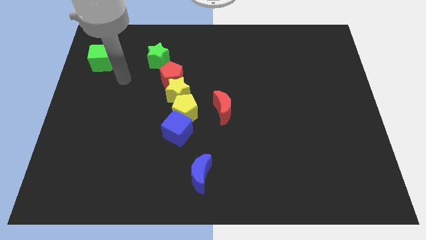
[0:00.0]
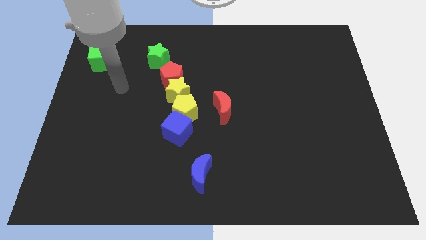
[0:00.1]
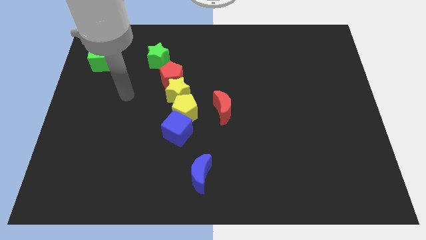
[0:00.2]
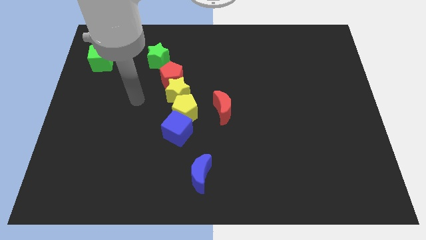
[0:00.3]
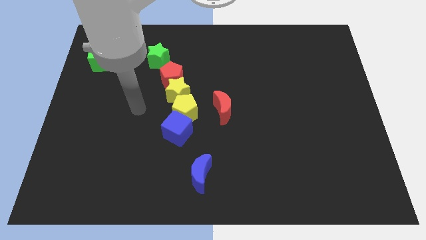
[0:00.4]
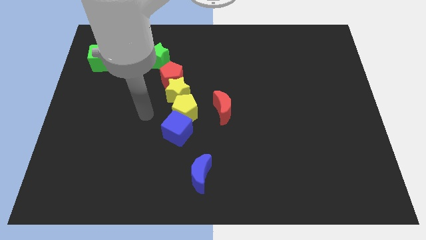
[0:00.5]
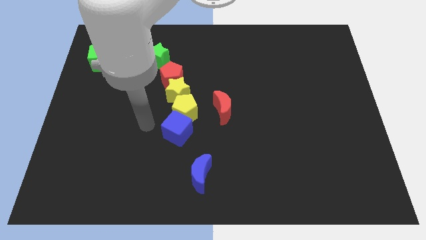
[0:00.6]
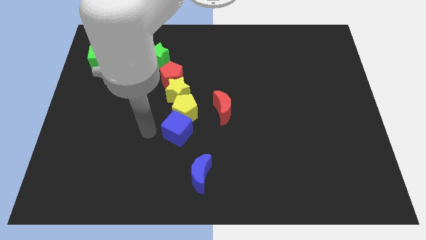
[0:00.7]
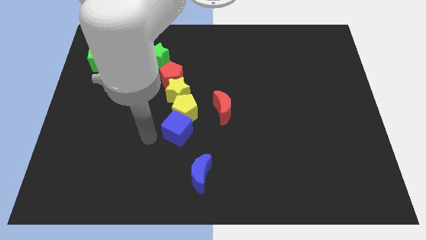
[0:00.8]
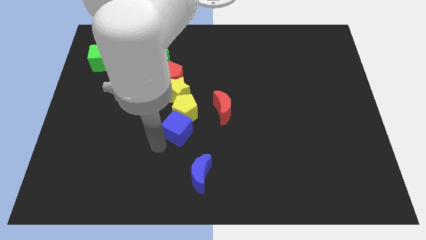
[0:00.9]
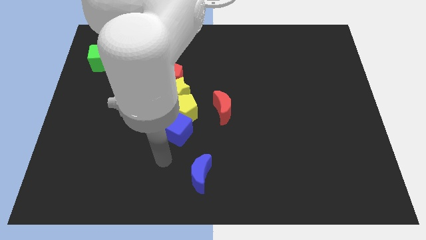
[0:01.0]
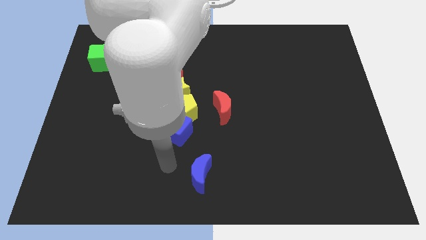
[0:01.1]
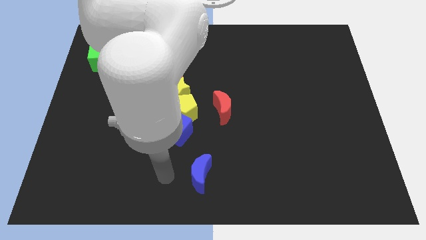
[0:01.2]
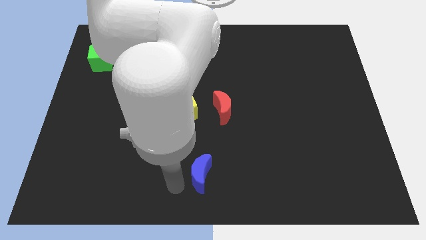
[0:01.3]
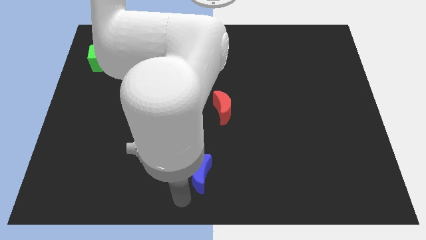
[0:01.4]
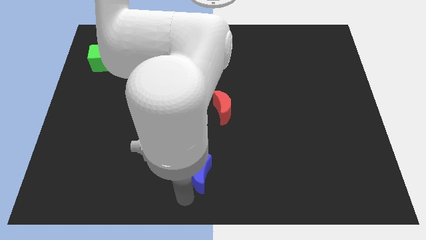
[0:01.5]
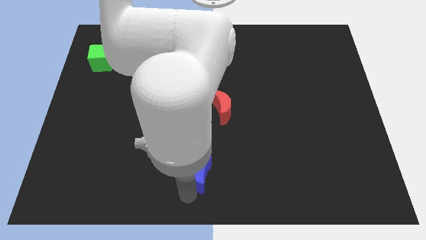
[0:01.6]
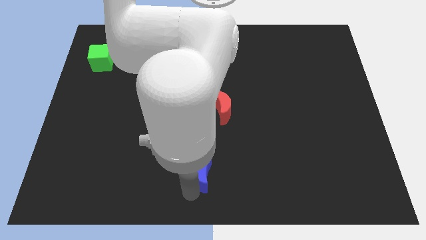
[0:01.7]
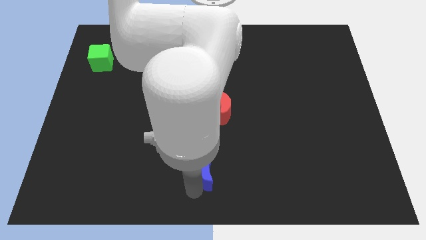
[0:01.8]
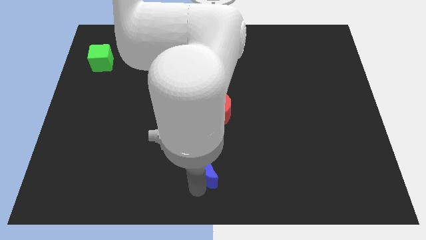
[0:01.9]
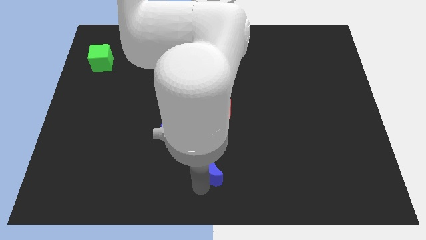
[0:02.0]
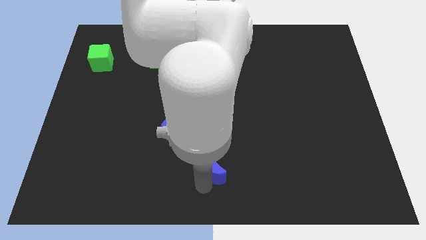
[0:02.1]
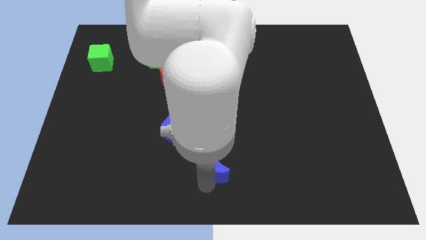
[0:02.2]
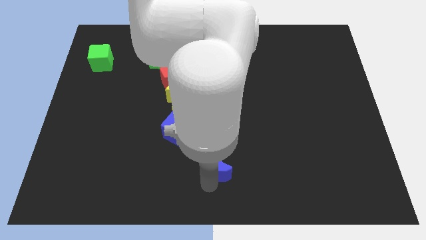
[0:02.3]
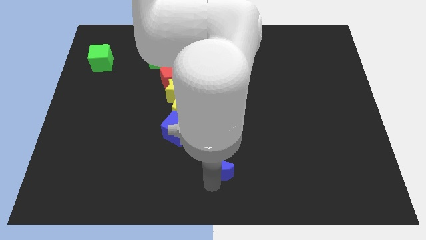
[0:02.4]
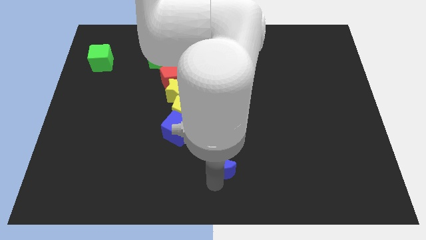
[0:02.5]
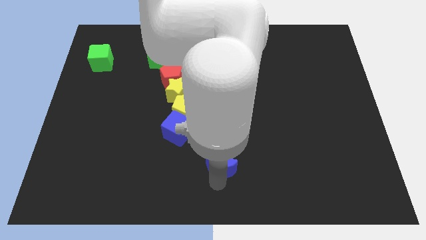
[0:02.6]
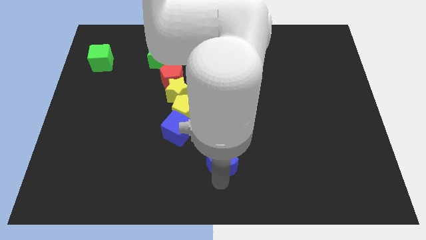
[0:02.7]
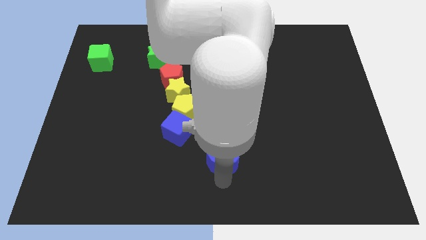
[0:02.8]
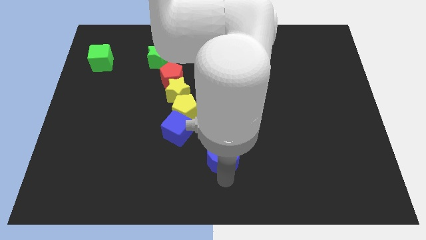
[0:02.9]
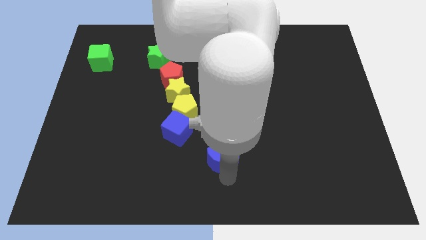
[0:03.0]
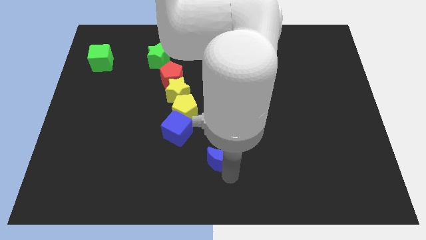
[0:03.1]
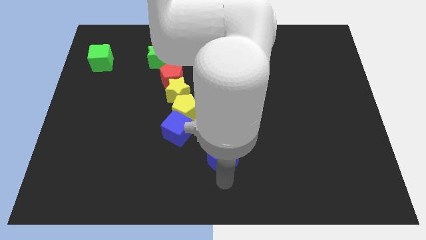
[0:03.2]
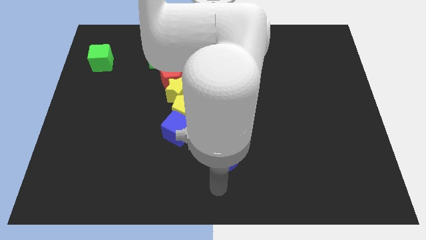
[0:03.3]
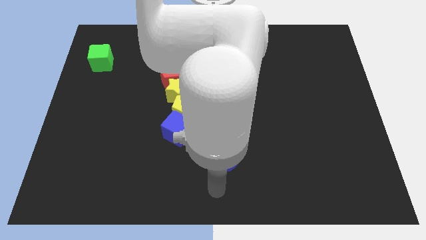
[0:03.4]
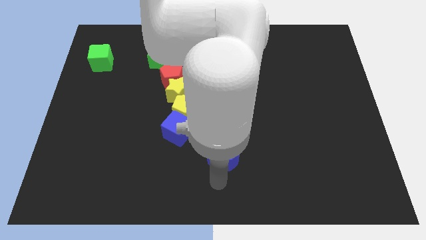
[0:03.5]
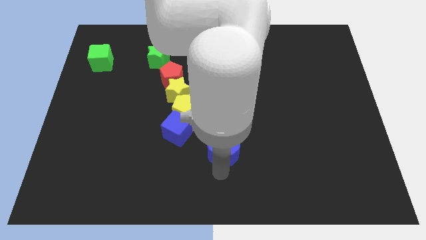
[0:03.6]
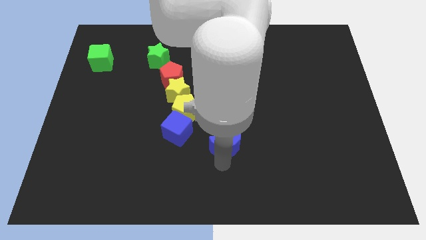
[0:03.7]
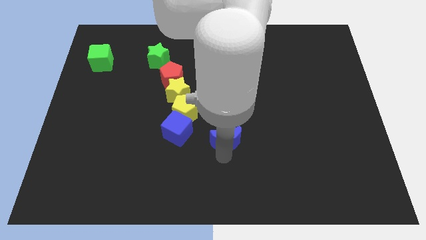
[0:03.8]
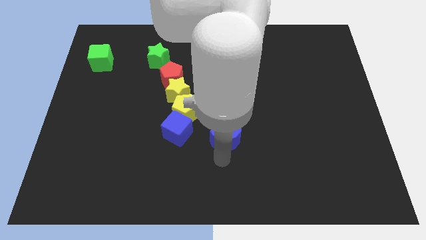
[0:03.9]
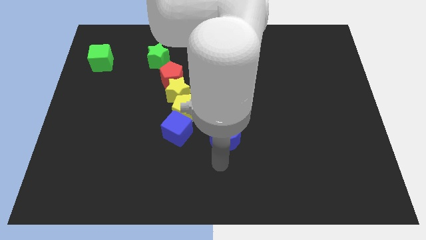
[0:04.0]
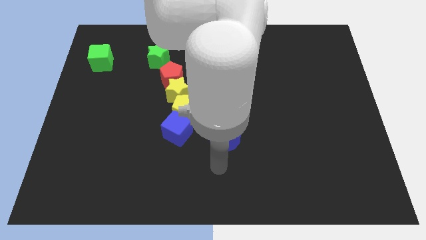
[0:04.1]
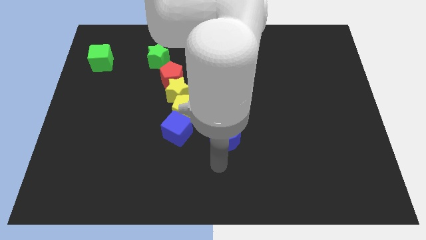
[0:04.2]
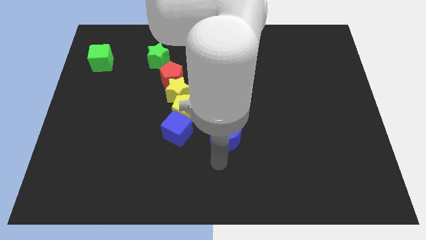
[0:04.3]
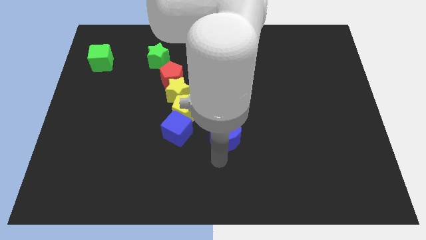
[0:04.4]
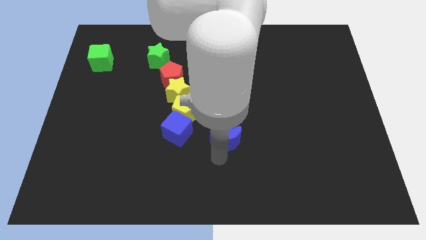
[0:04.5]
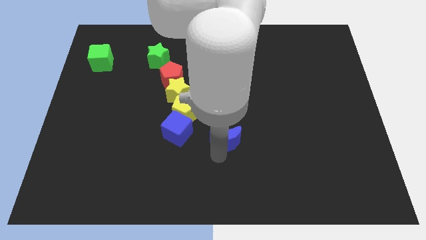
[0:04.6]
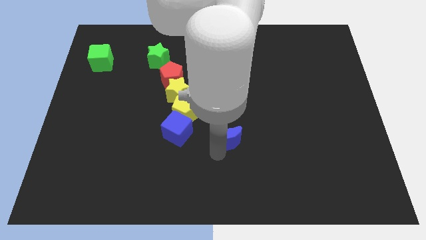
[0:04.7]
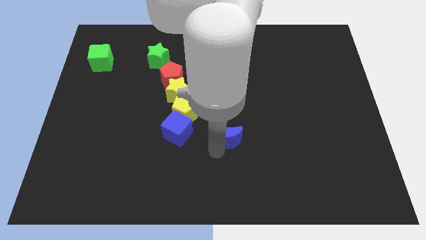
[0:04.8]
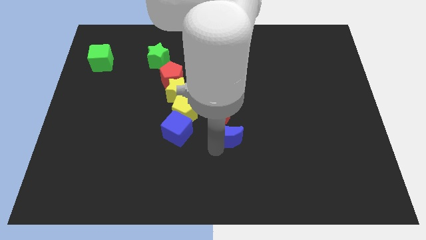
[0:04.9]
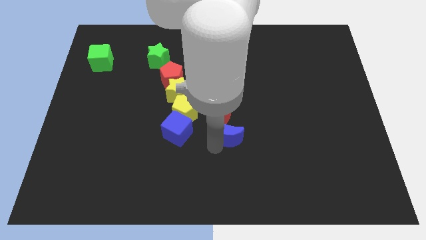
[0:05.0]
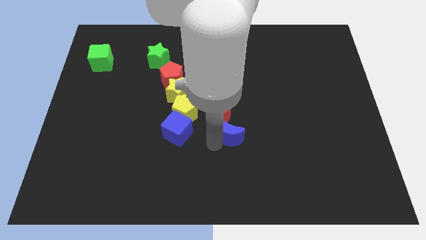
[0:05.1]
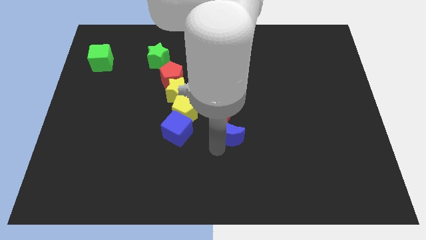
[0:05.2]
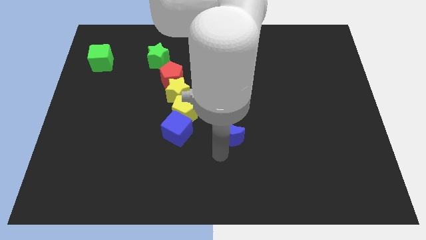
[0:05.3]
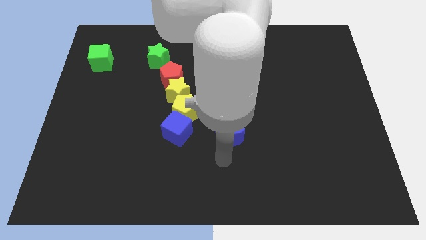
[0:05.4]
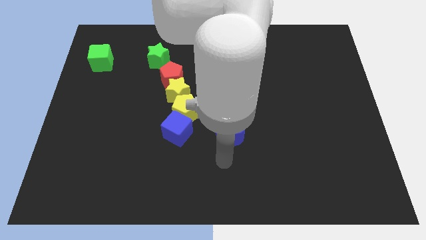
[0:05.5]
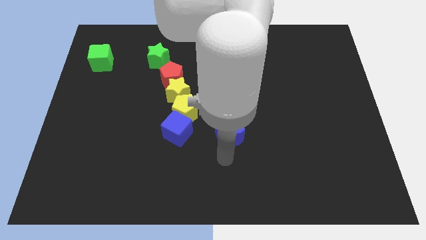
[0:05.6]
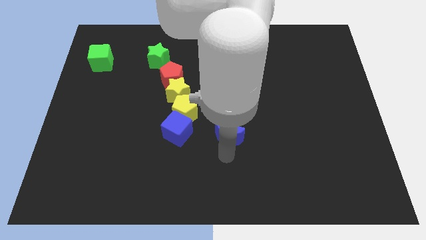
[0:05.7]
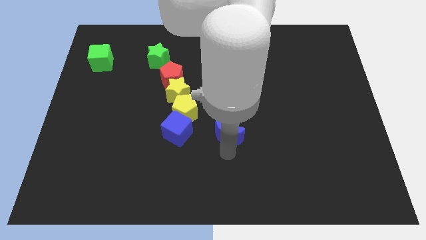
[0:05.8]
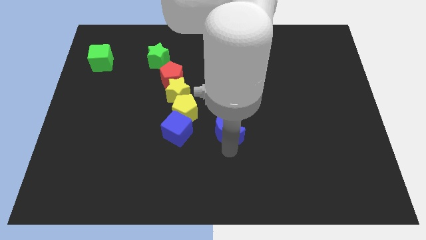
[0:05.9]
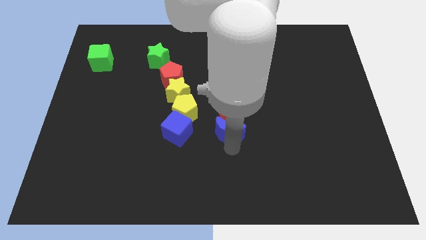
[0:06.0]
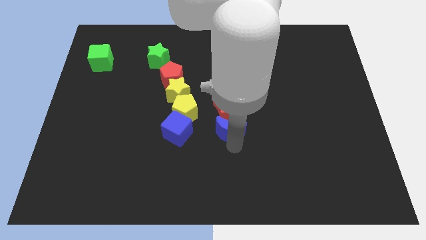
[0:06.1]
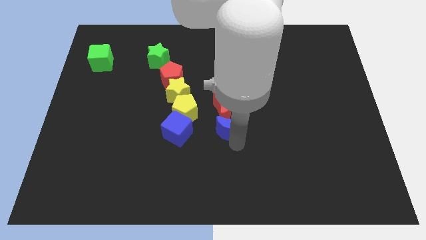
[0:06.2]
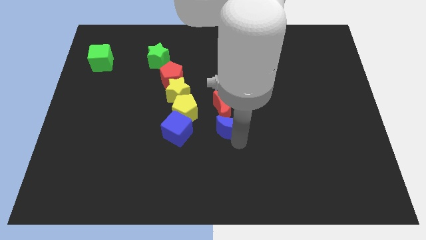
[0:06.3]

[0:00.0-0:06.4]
slide the blue moon to the right side of the yellow pentagon
